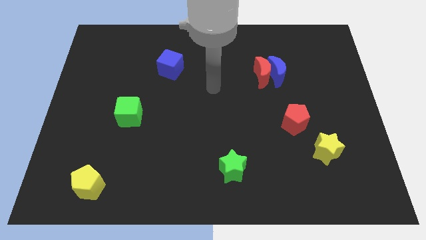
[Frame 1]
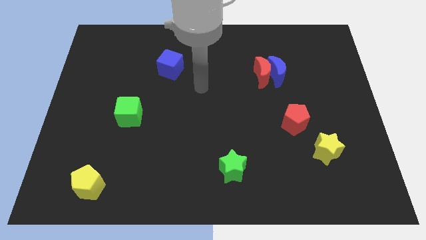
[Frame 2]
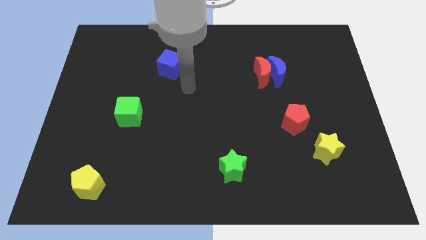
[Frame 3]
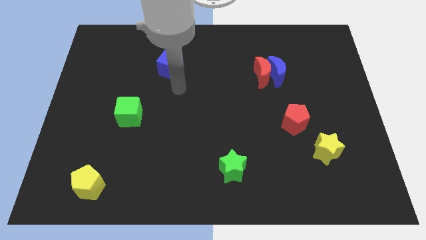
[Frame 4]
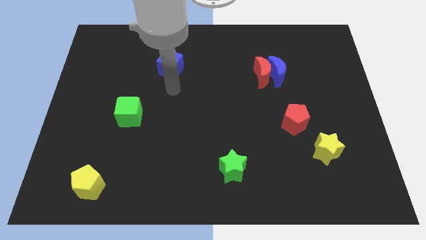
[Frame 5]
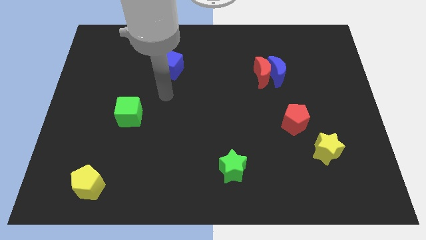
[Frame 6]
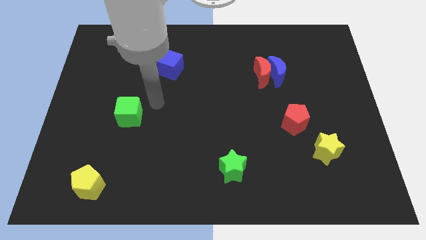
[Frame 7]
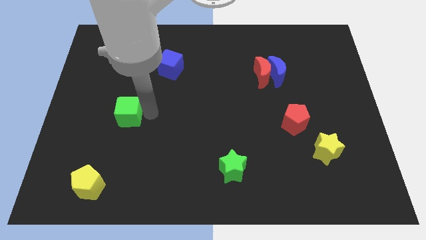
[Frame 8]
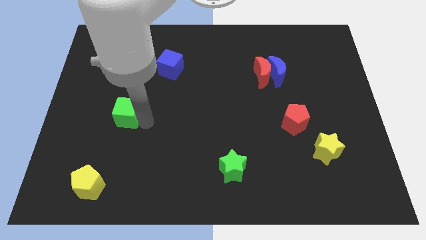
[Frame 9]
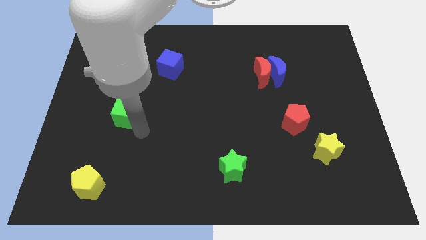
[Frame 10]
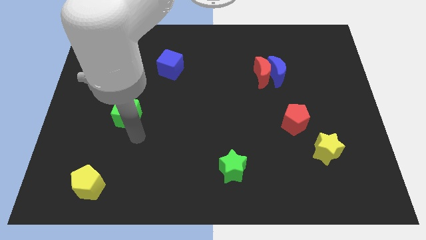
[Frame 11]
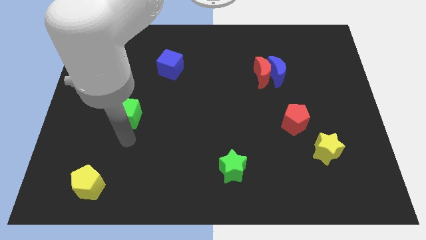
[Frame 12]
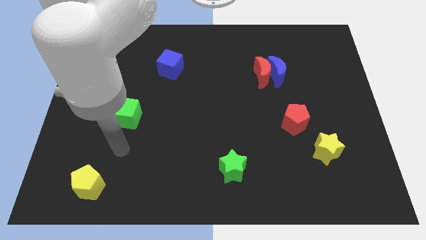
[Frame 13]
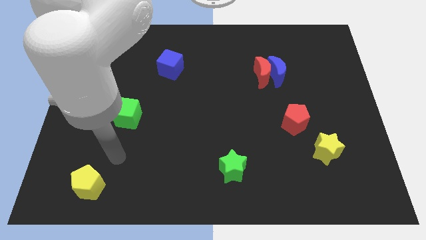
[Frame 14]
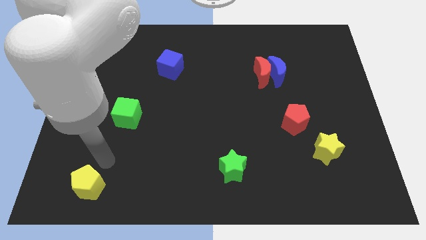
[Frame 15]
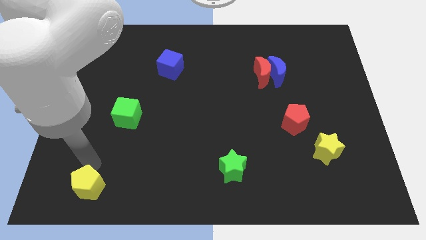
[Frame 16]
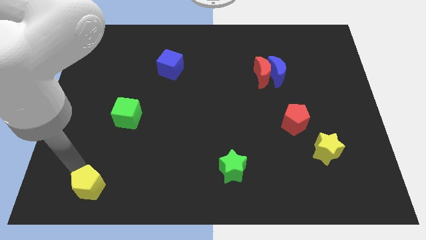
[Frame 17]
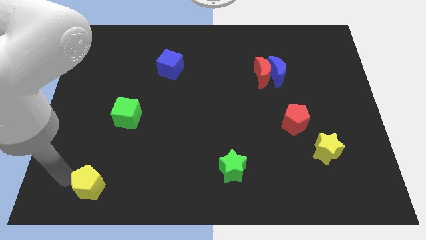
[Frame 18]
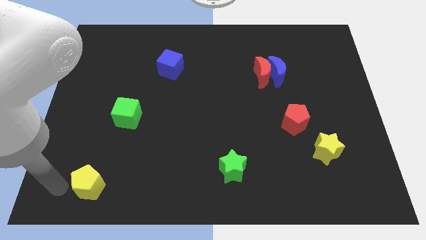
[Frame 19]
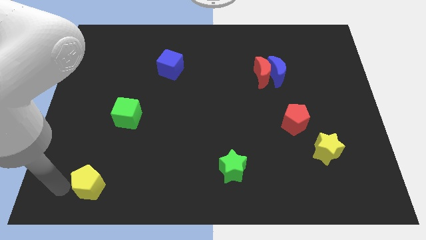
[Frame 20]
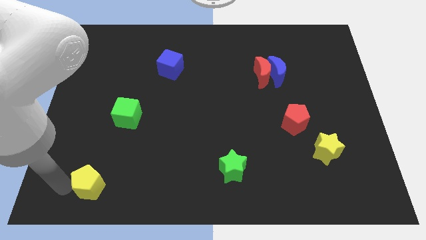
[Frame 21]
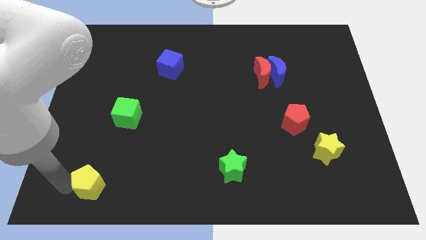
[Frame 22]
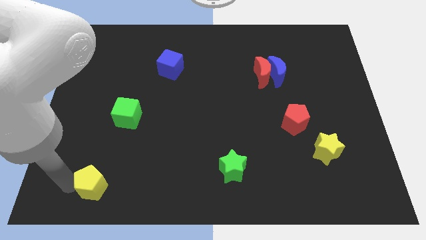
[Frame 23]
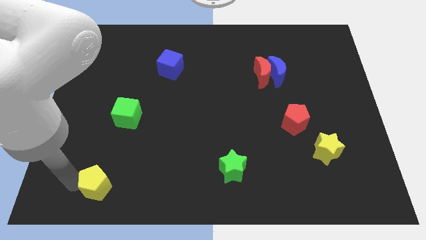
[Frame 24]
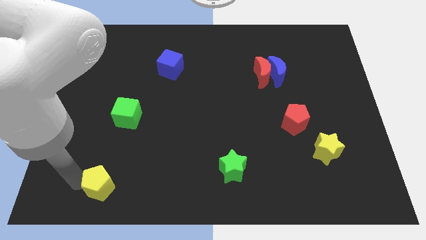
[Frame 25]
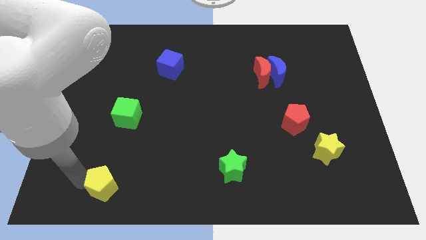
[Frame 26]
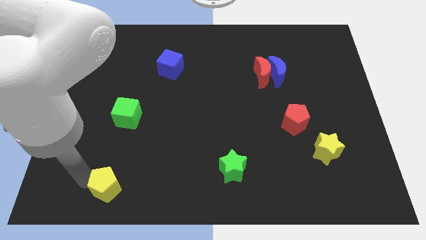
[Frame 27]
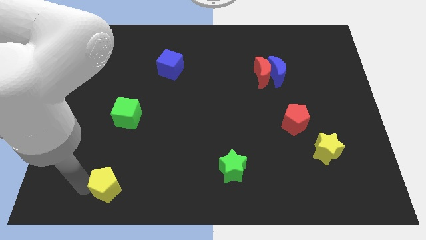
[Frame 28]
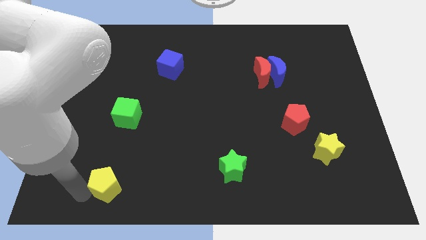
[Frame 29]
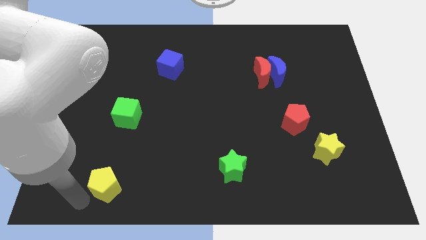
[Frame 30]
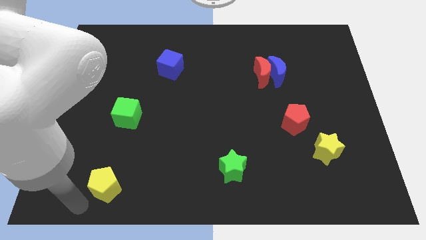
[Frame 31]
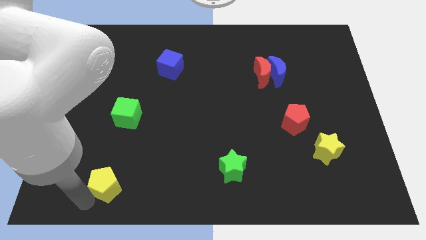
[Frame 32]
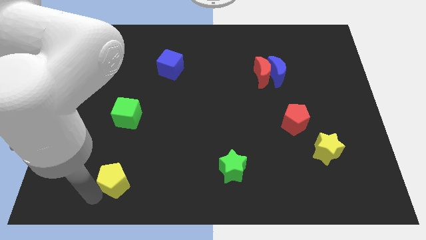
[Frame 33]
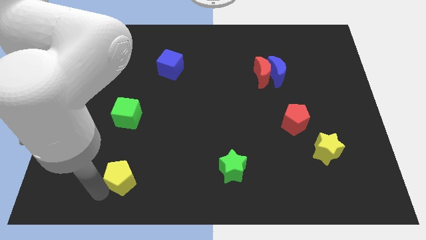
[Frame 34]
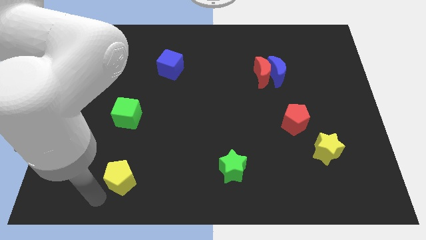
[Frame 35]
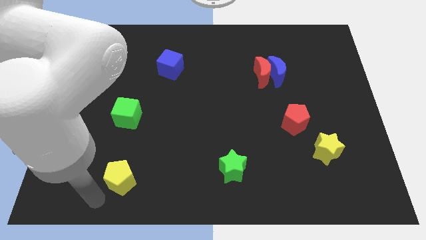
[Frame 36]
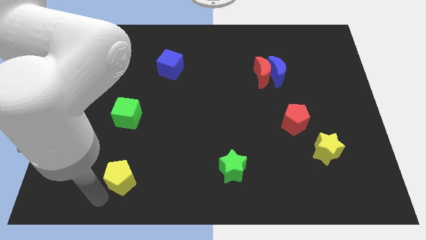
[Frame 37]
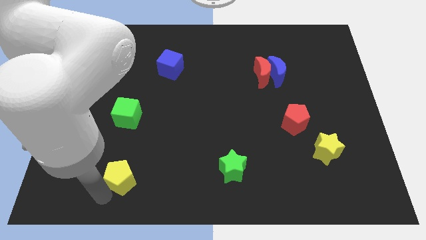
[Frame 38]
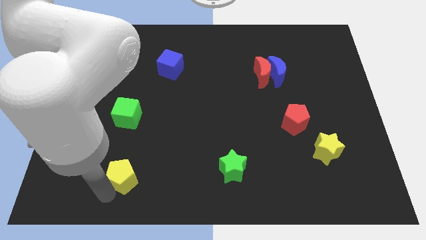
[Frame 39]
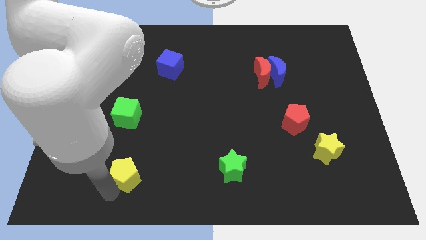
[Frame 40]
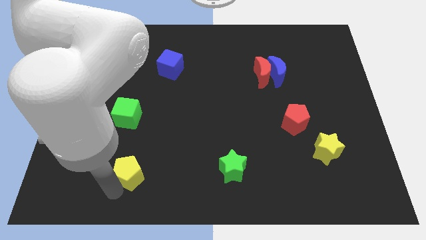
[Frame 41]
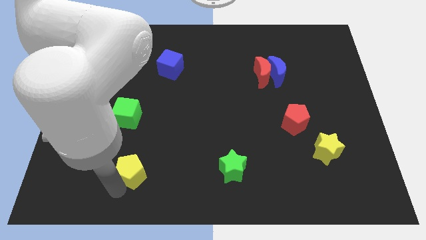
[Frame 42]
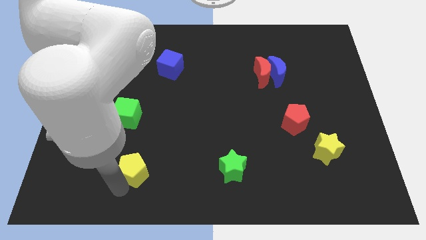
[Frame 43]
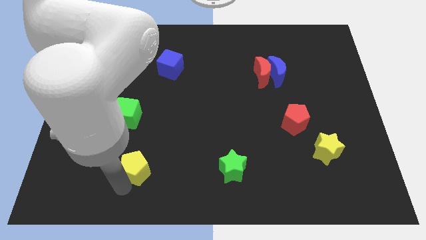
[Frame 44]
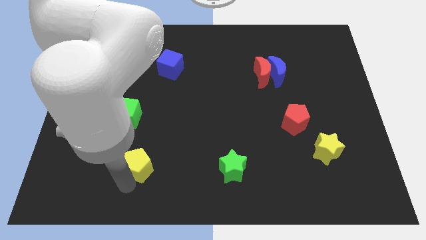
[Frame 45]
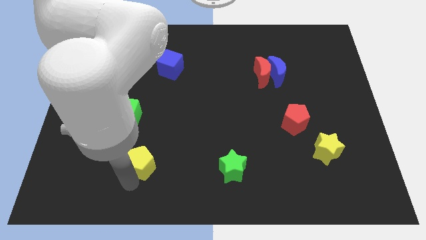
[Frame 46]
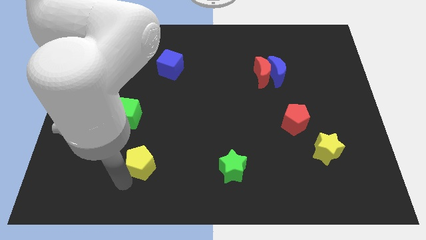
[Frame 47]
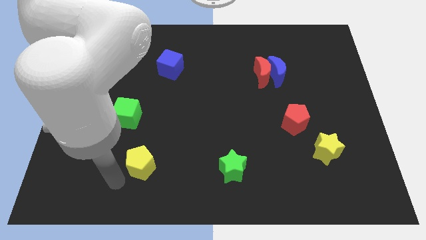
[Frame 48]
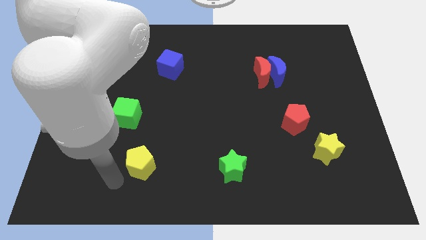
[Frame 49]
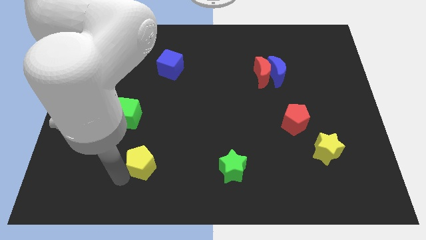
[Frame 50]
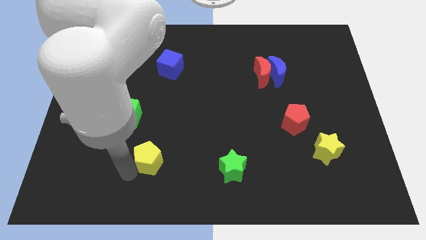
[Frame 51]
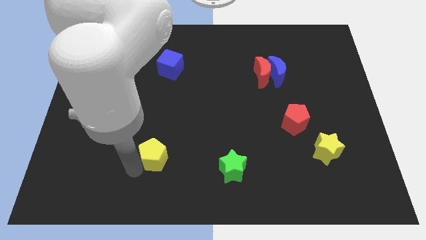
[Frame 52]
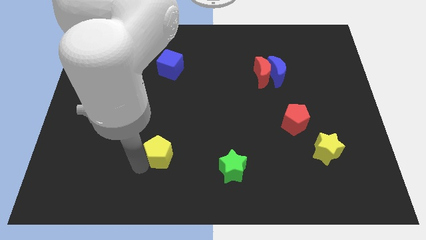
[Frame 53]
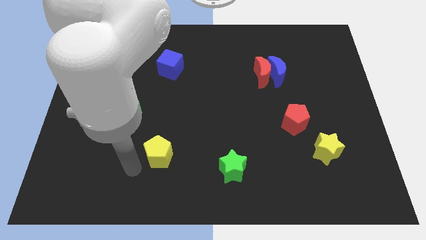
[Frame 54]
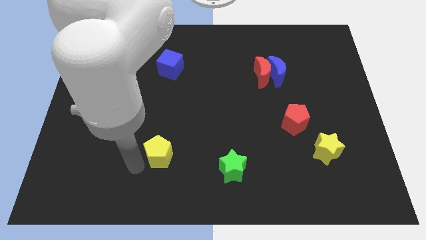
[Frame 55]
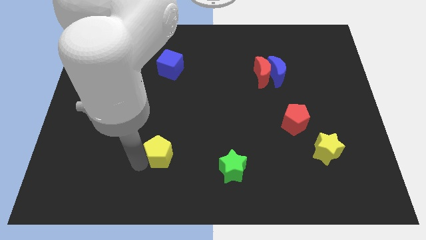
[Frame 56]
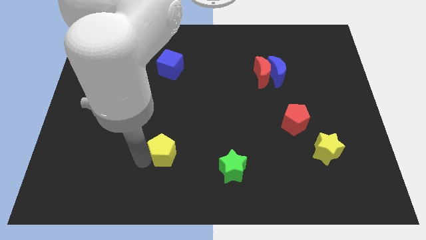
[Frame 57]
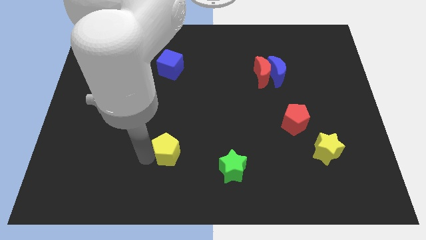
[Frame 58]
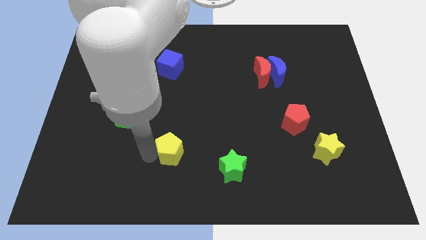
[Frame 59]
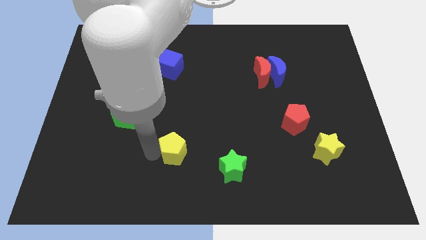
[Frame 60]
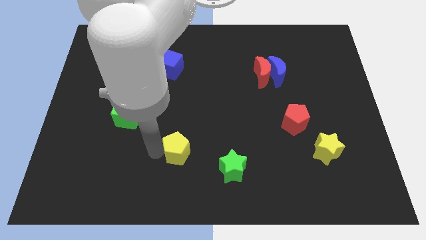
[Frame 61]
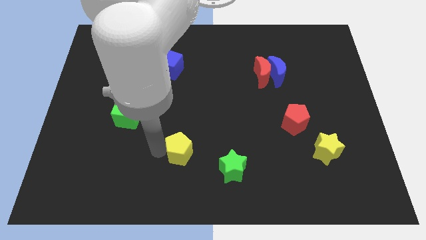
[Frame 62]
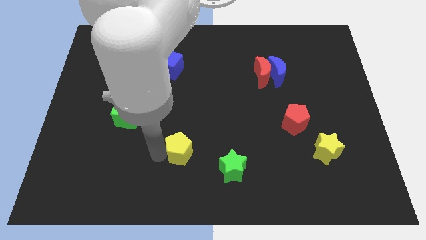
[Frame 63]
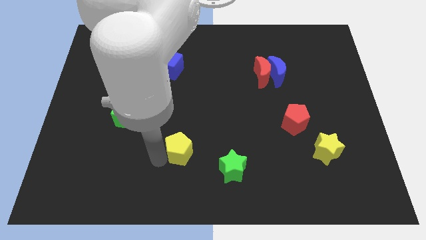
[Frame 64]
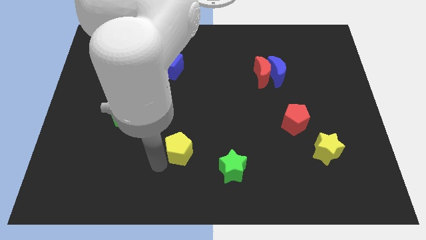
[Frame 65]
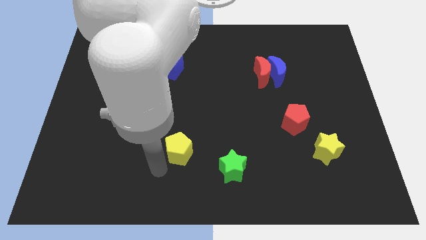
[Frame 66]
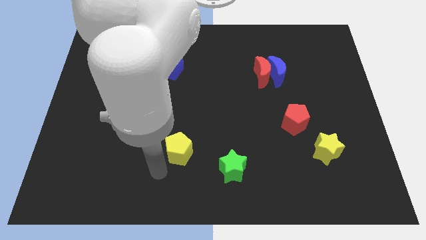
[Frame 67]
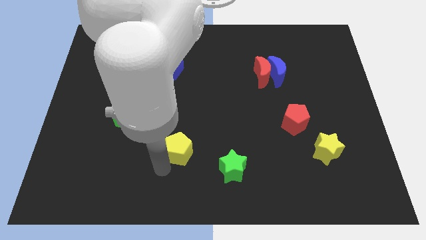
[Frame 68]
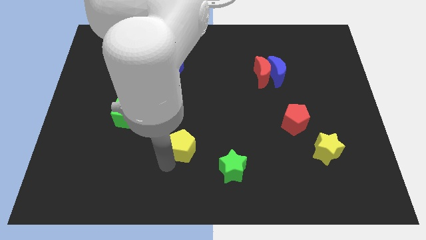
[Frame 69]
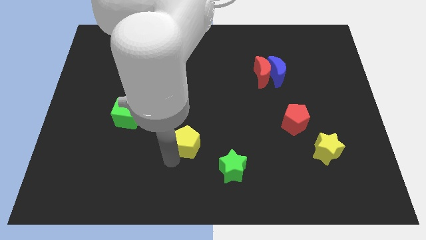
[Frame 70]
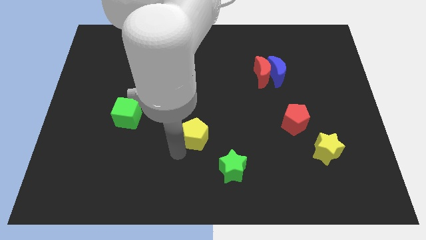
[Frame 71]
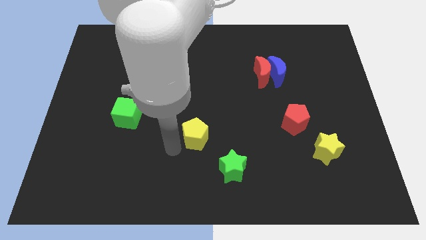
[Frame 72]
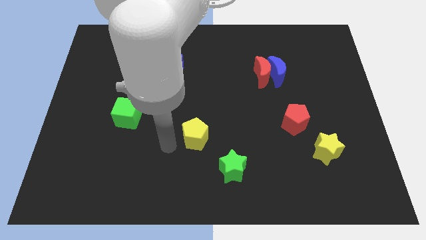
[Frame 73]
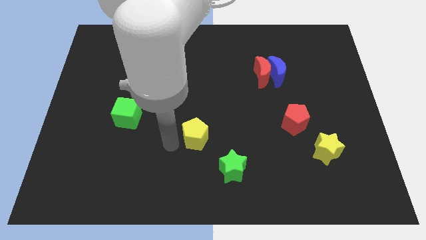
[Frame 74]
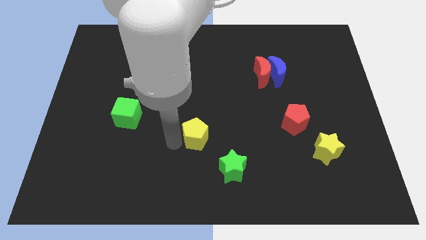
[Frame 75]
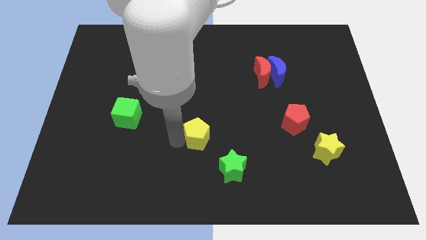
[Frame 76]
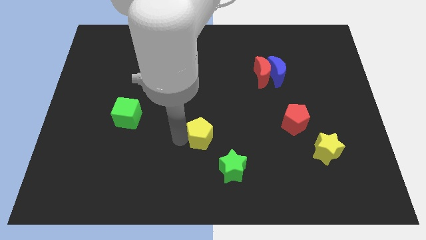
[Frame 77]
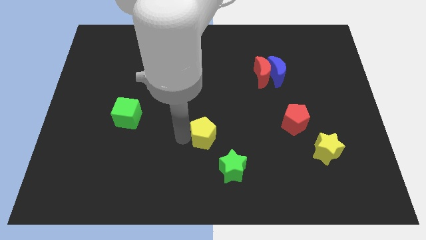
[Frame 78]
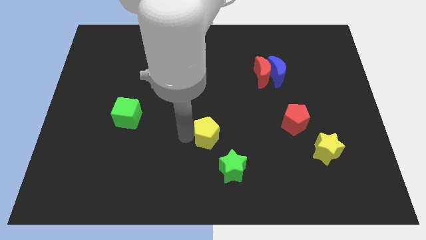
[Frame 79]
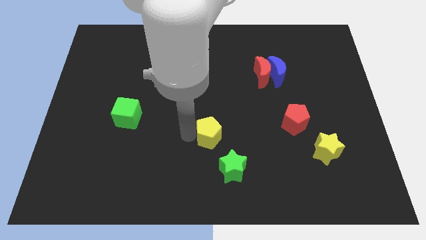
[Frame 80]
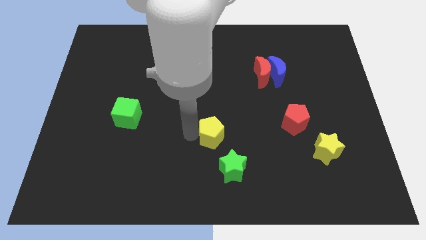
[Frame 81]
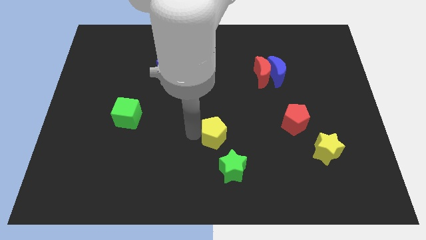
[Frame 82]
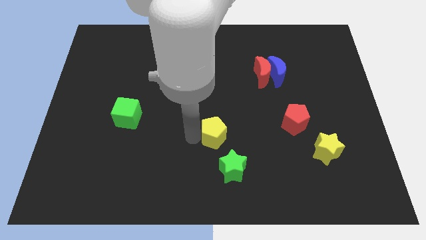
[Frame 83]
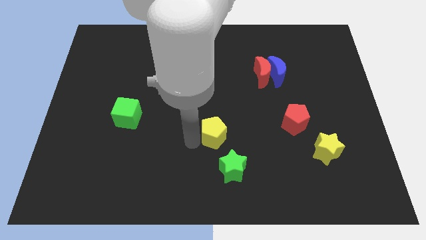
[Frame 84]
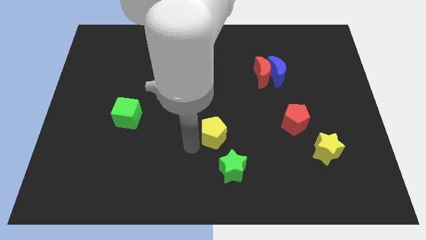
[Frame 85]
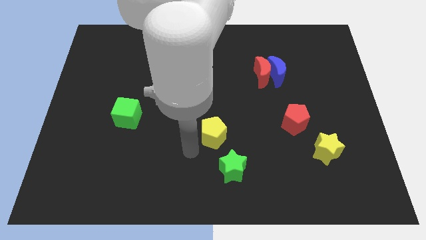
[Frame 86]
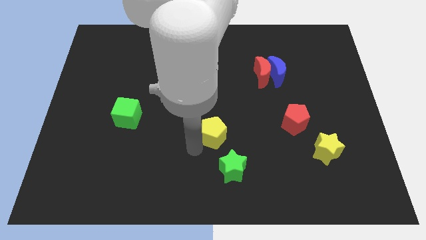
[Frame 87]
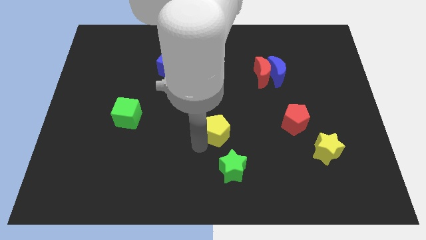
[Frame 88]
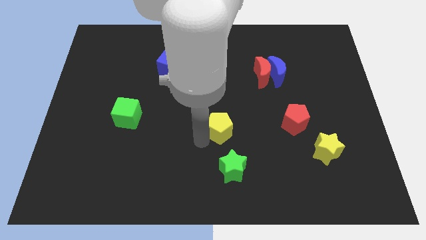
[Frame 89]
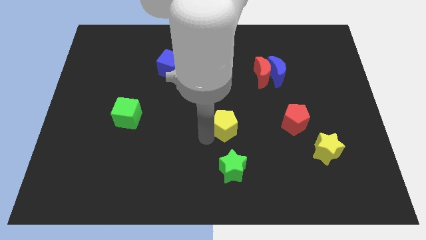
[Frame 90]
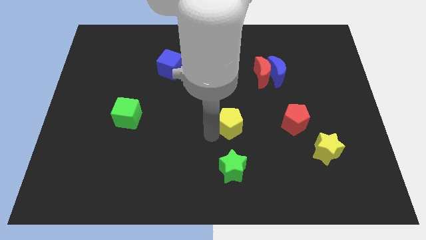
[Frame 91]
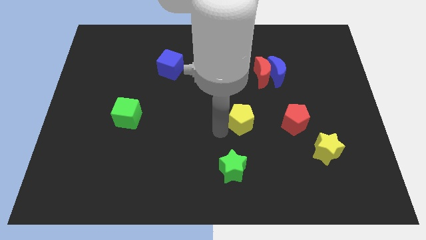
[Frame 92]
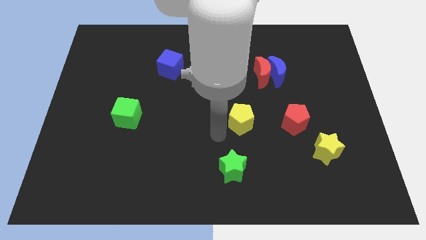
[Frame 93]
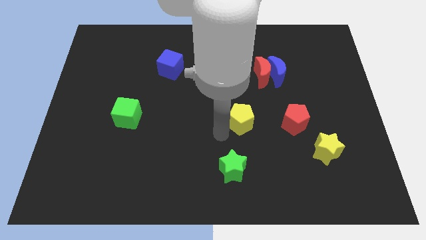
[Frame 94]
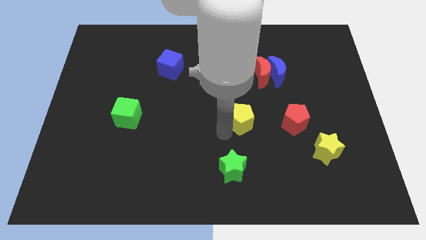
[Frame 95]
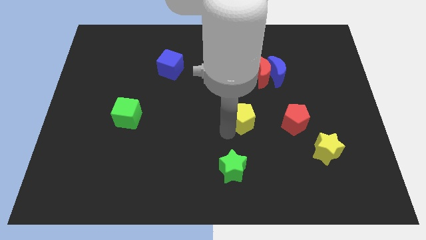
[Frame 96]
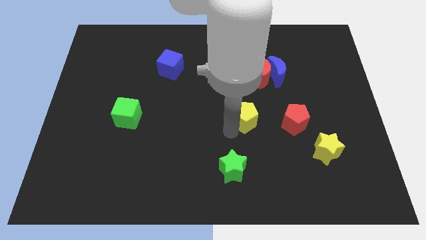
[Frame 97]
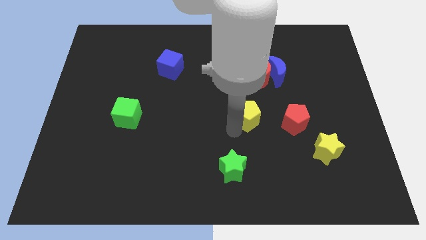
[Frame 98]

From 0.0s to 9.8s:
move the yellow pentagon below the red moon
